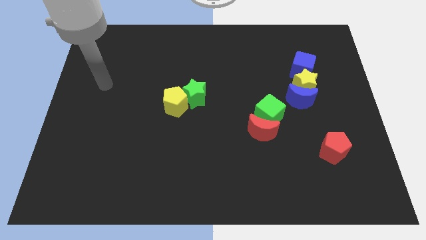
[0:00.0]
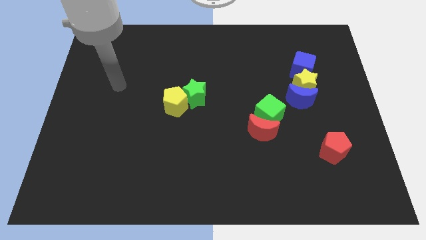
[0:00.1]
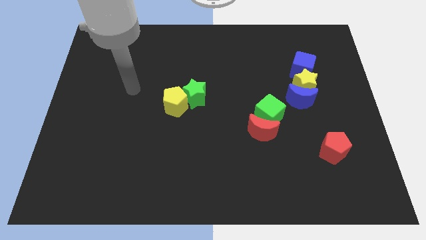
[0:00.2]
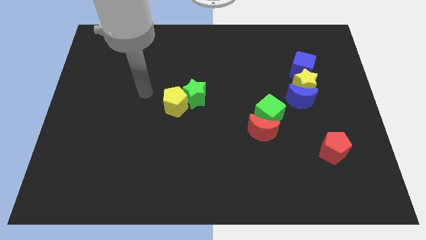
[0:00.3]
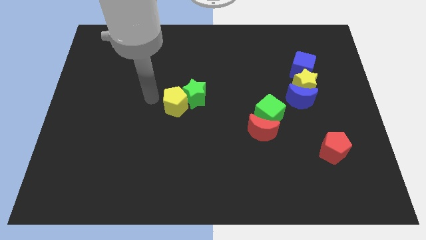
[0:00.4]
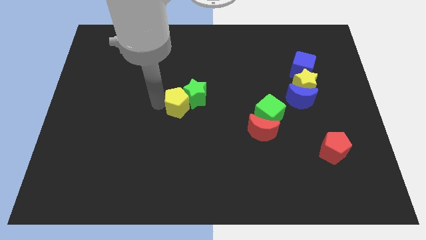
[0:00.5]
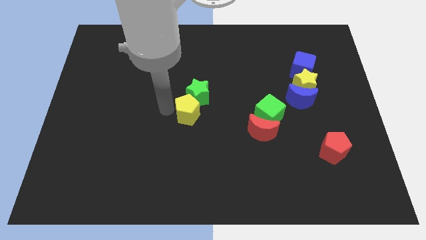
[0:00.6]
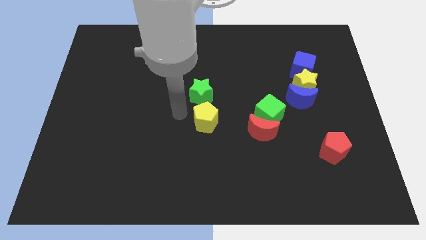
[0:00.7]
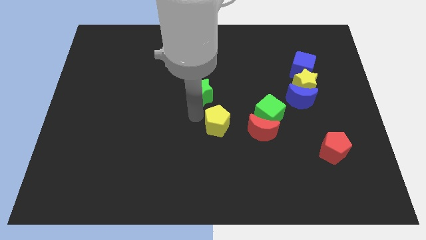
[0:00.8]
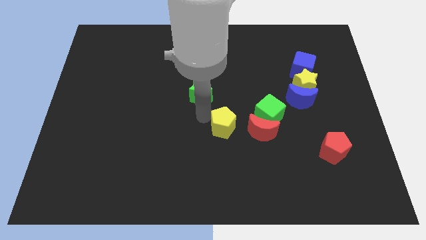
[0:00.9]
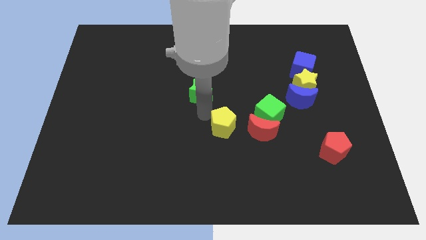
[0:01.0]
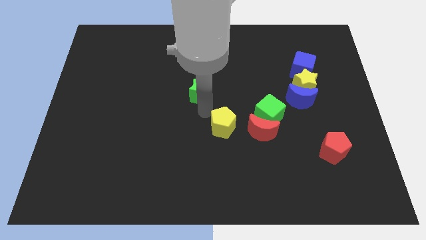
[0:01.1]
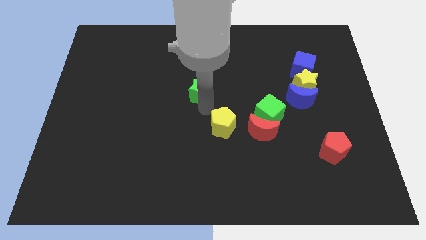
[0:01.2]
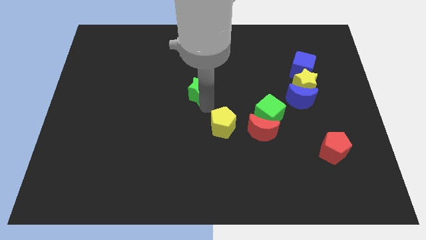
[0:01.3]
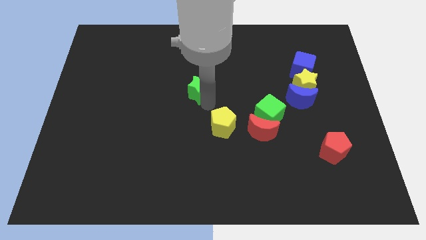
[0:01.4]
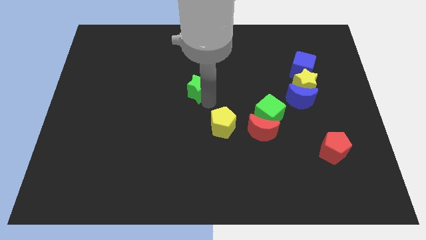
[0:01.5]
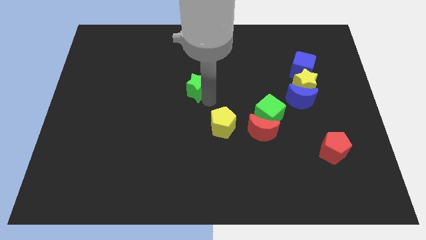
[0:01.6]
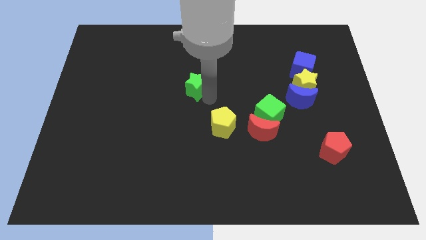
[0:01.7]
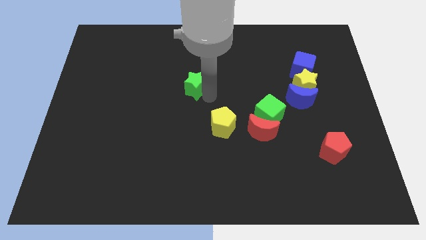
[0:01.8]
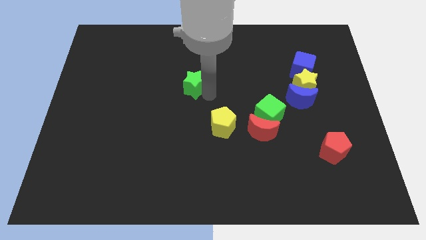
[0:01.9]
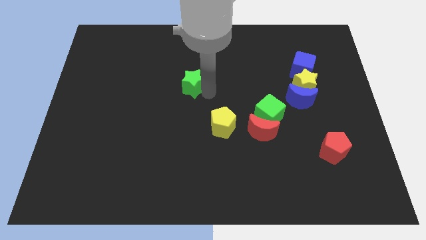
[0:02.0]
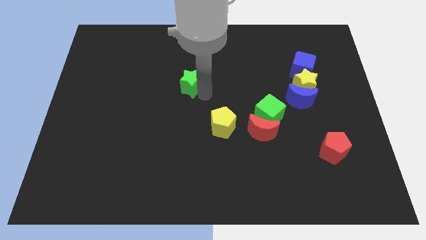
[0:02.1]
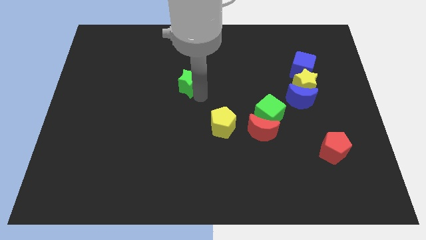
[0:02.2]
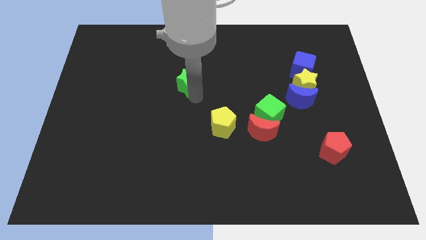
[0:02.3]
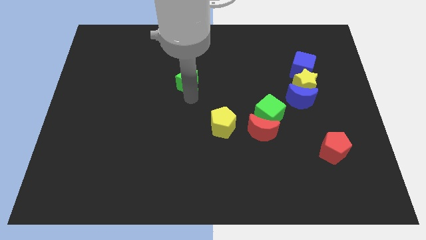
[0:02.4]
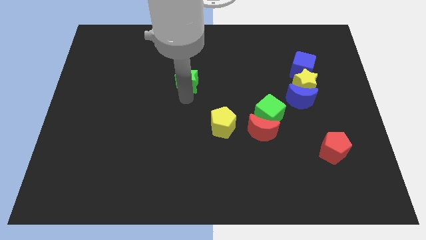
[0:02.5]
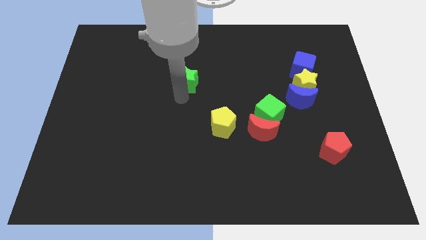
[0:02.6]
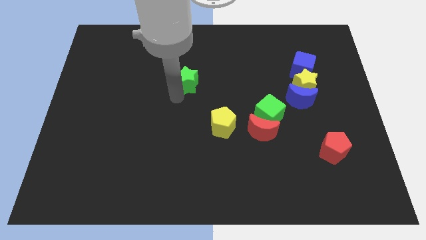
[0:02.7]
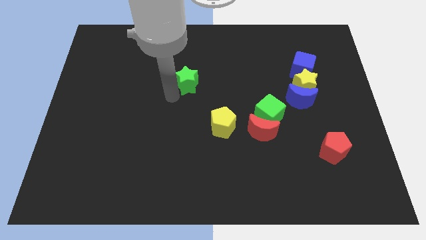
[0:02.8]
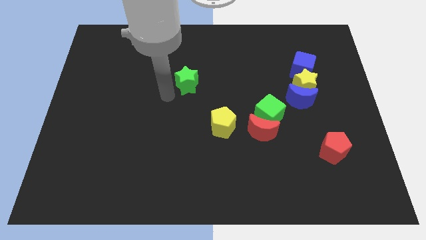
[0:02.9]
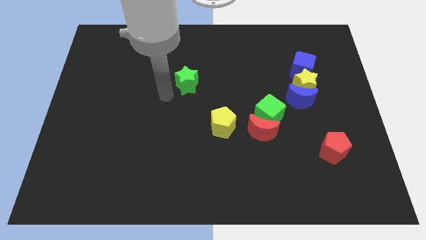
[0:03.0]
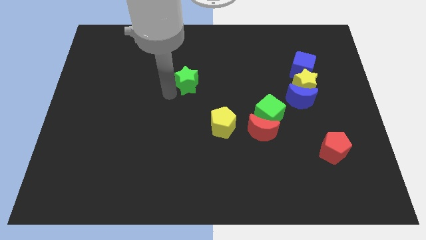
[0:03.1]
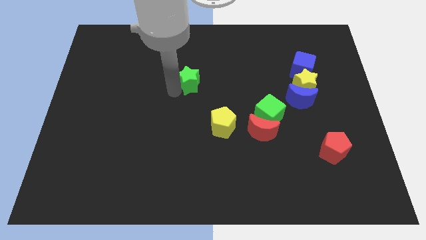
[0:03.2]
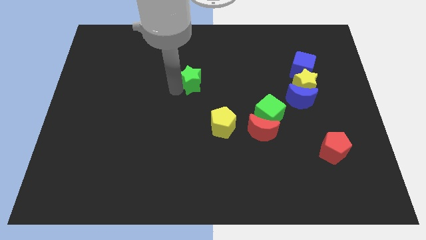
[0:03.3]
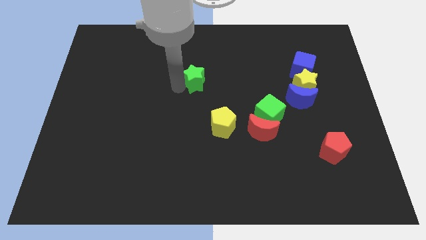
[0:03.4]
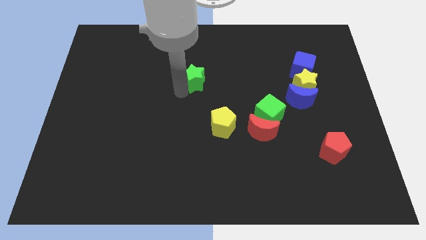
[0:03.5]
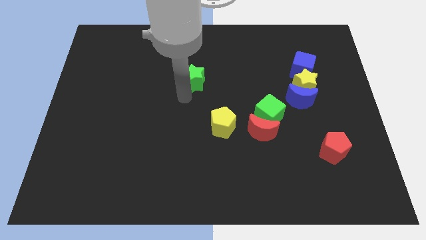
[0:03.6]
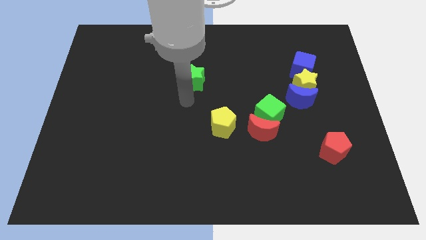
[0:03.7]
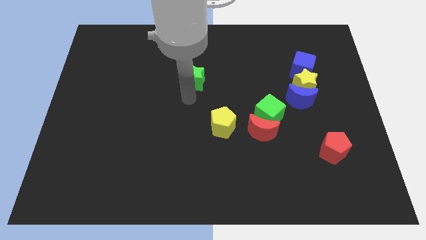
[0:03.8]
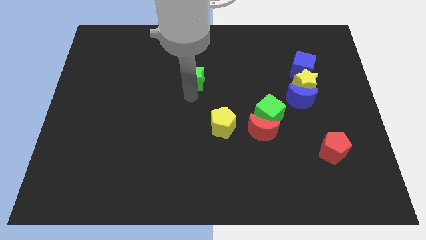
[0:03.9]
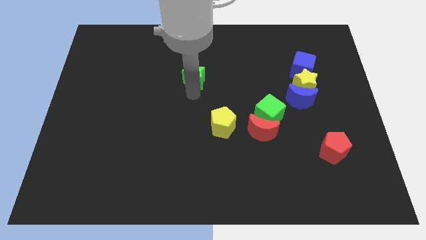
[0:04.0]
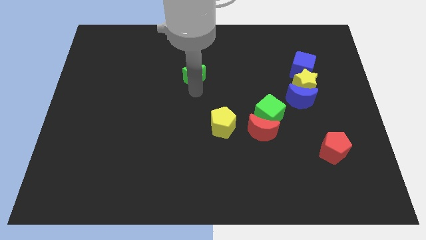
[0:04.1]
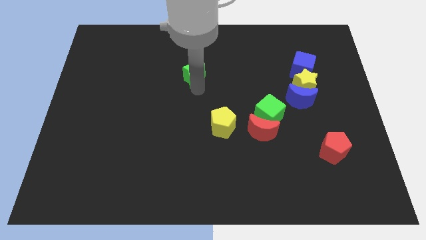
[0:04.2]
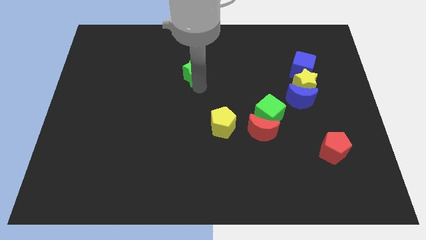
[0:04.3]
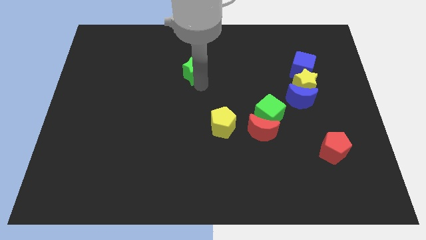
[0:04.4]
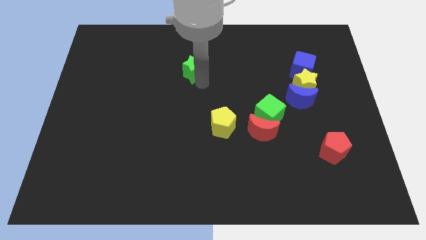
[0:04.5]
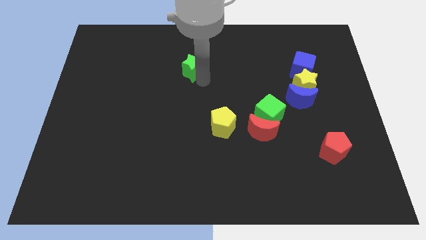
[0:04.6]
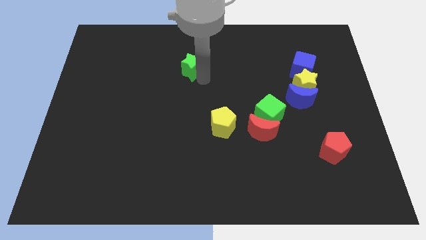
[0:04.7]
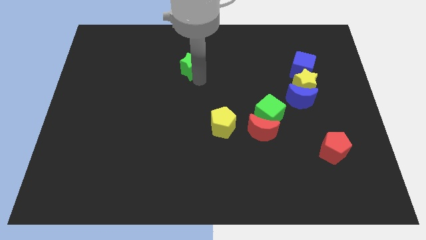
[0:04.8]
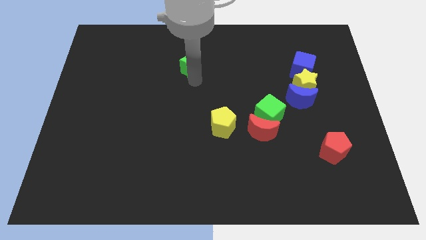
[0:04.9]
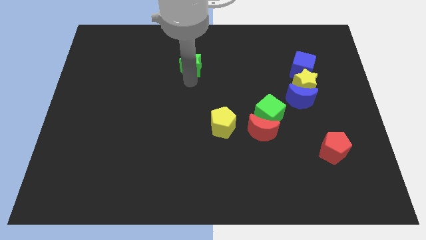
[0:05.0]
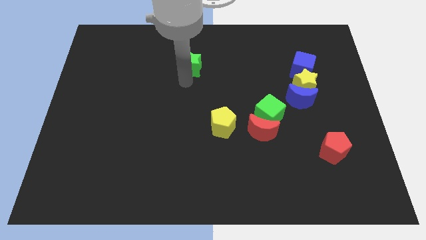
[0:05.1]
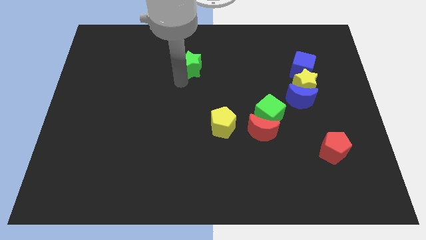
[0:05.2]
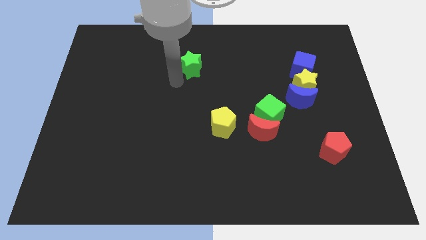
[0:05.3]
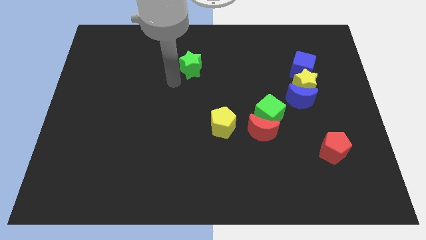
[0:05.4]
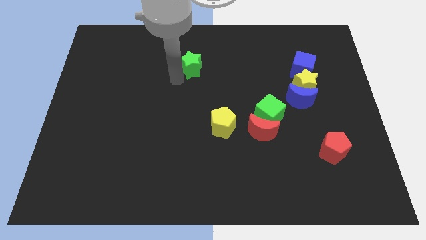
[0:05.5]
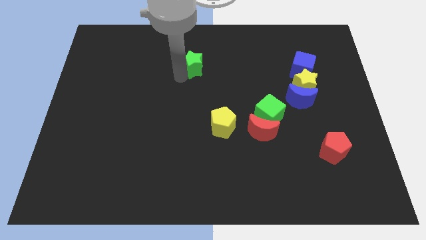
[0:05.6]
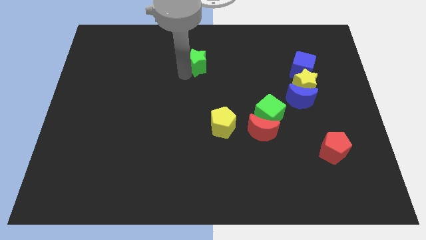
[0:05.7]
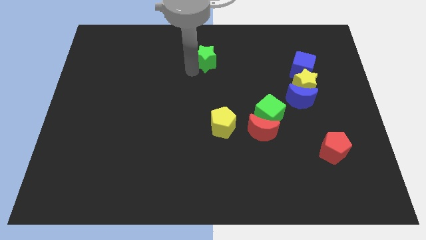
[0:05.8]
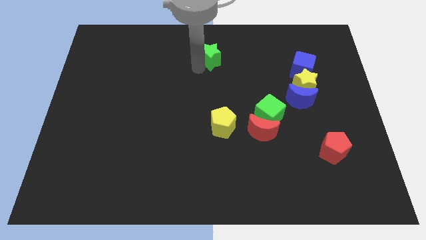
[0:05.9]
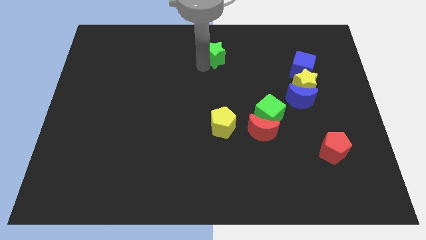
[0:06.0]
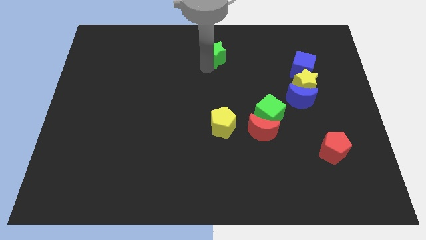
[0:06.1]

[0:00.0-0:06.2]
push the green star to the top side

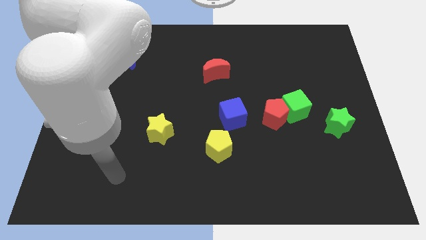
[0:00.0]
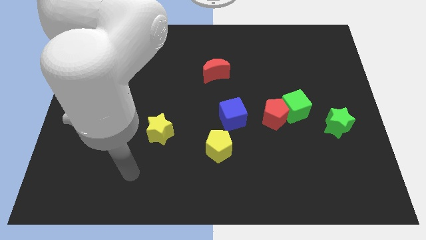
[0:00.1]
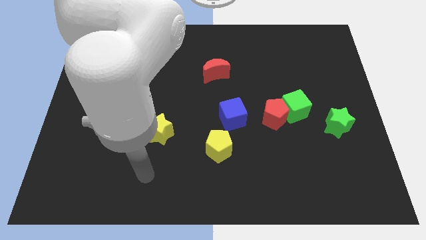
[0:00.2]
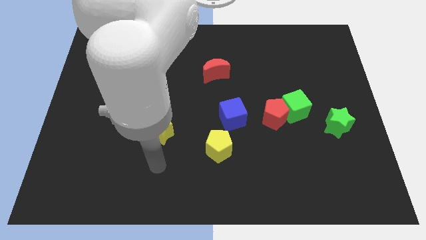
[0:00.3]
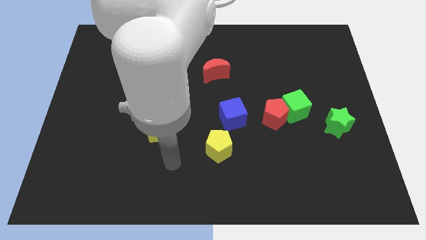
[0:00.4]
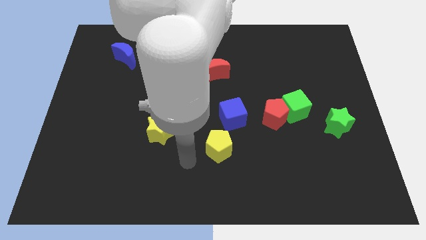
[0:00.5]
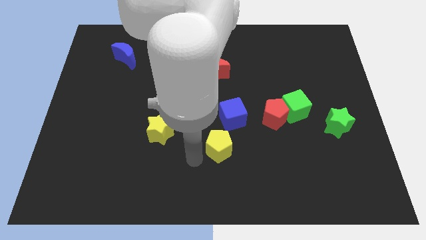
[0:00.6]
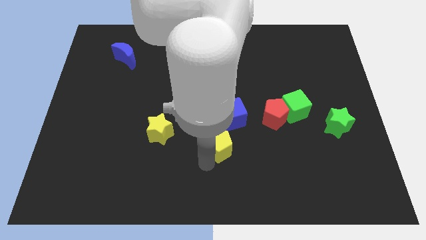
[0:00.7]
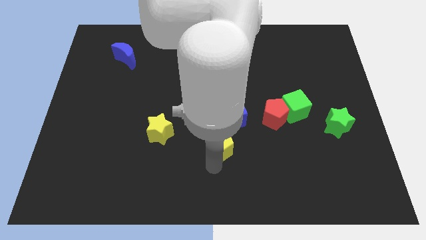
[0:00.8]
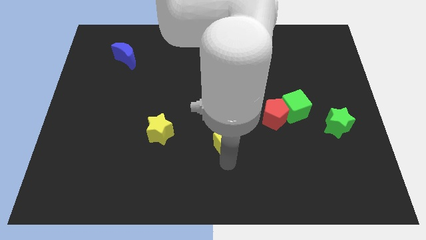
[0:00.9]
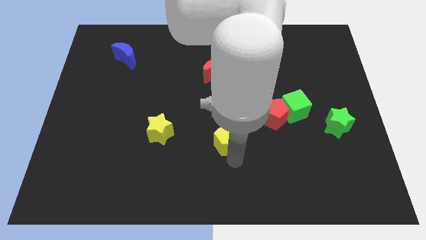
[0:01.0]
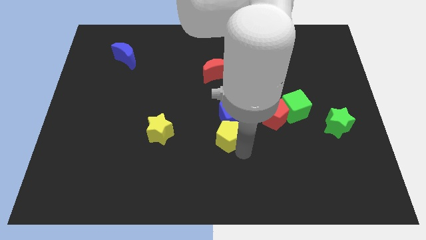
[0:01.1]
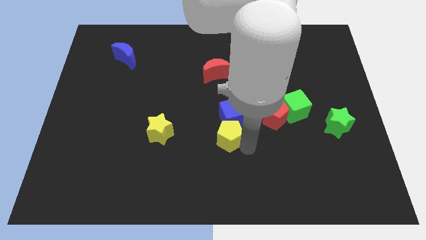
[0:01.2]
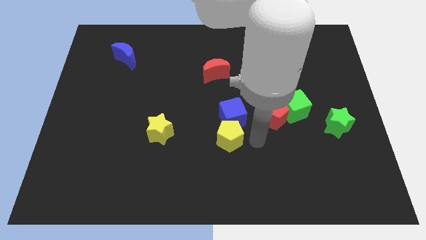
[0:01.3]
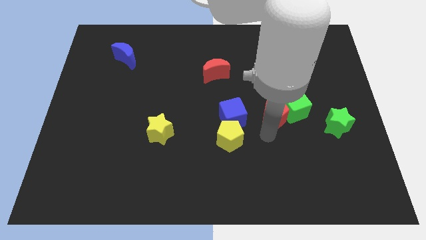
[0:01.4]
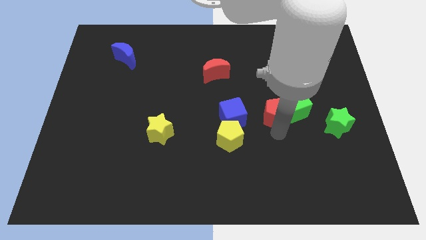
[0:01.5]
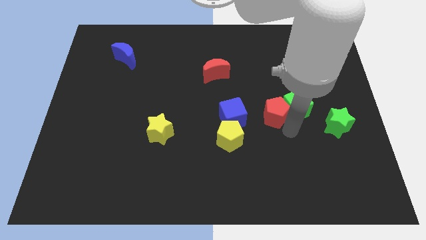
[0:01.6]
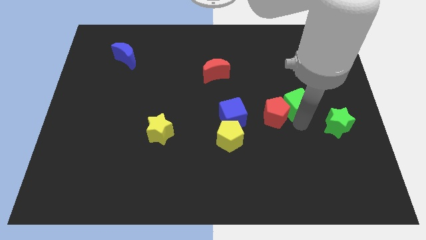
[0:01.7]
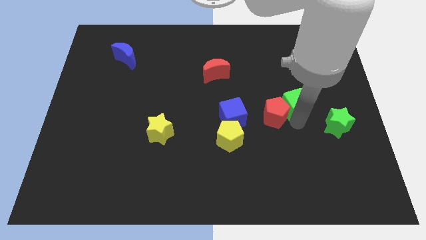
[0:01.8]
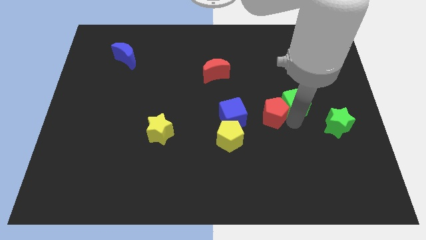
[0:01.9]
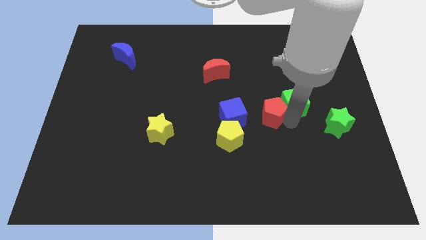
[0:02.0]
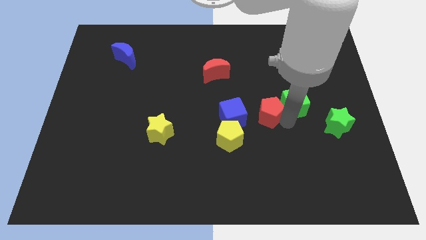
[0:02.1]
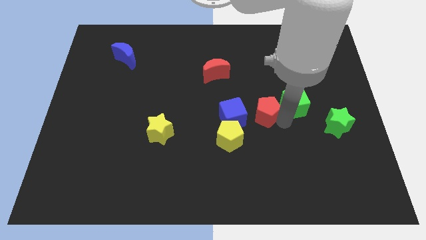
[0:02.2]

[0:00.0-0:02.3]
put the red pentagon to the center
